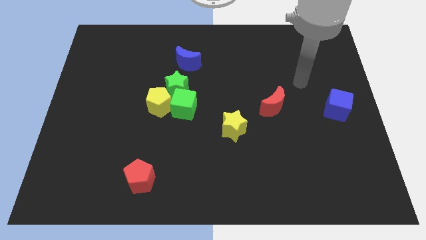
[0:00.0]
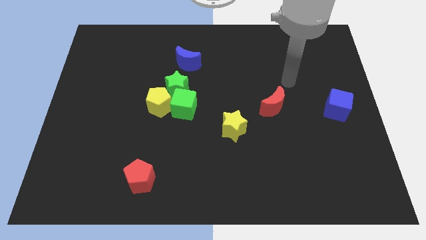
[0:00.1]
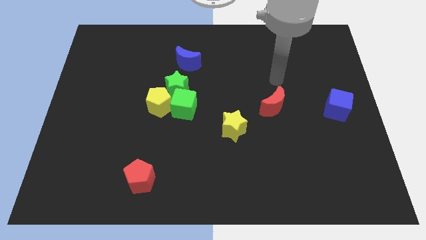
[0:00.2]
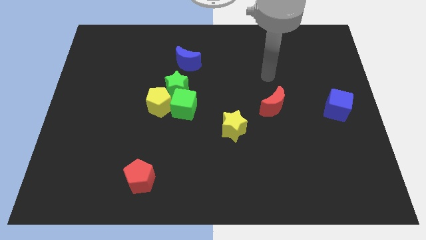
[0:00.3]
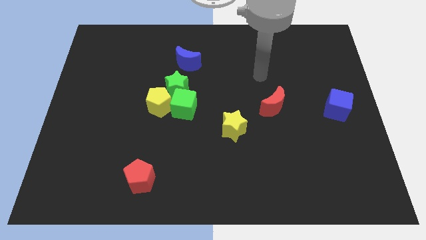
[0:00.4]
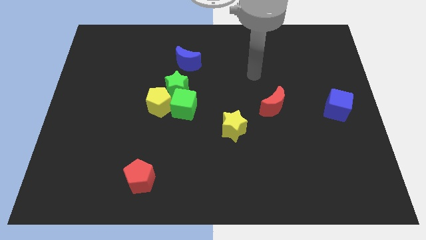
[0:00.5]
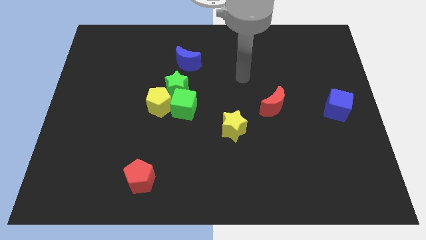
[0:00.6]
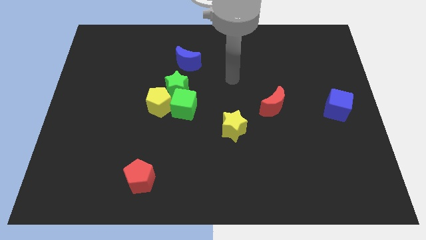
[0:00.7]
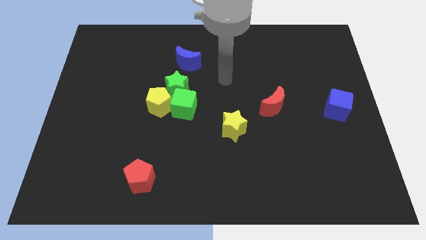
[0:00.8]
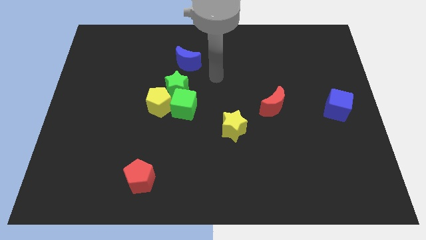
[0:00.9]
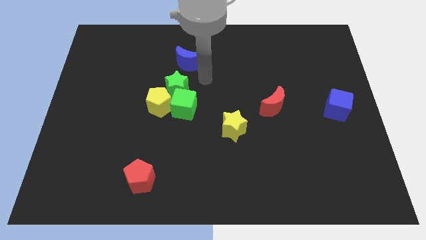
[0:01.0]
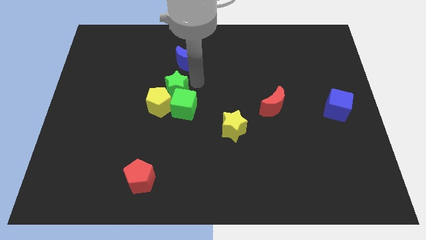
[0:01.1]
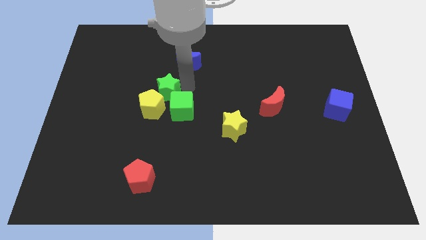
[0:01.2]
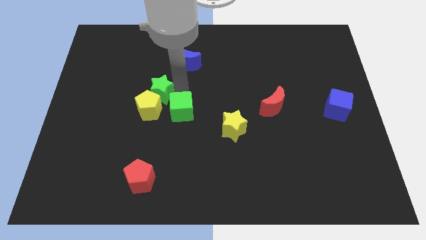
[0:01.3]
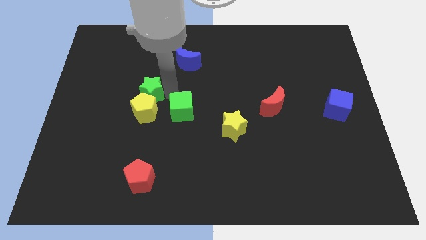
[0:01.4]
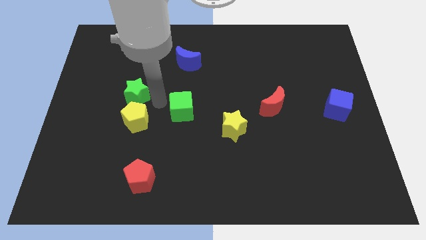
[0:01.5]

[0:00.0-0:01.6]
separate the green cube from the yellow pentagon and green star

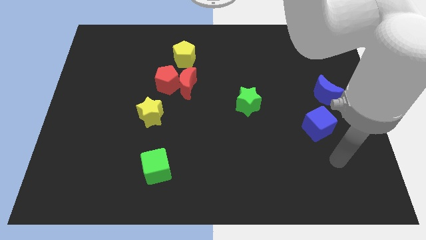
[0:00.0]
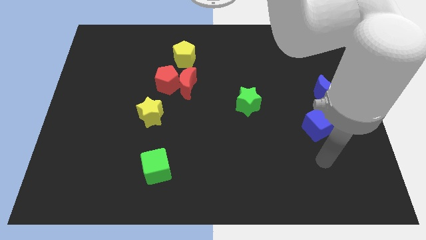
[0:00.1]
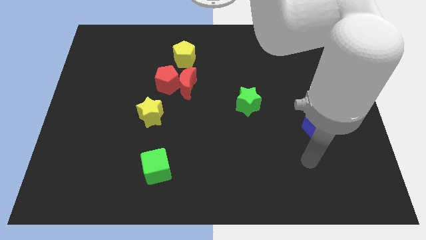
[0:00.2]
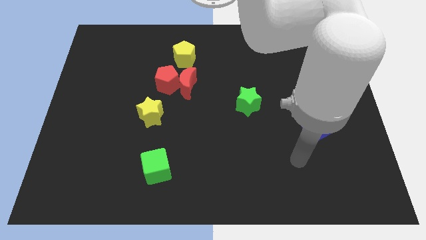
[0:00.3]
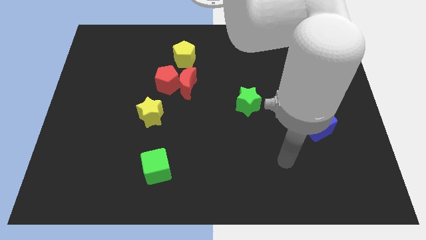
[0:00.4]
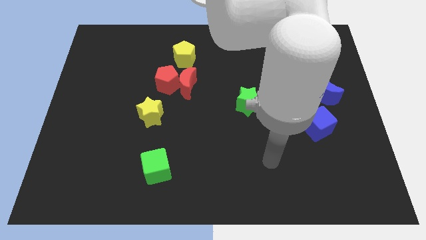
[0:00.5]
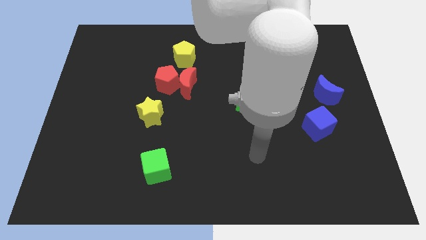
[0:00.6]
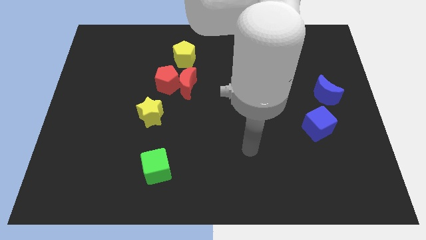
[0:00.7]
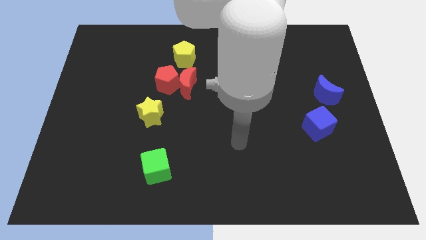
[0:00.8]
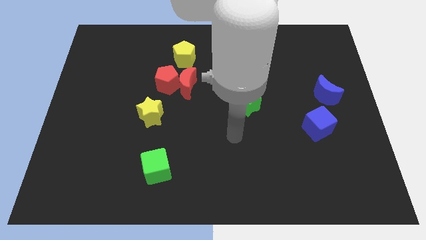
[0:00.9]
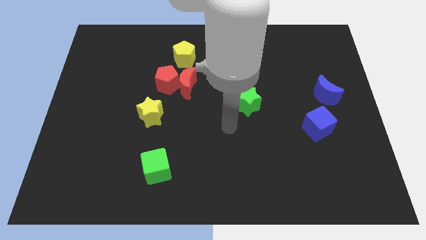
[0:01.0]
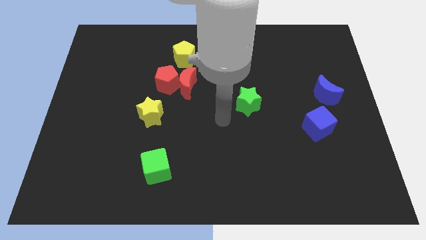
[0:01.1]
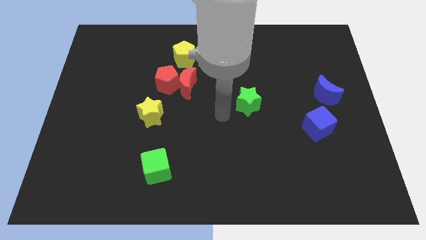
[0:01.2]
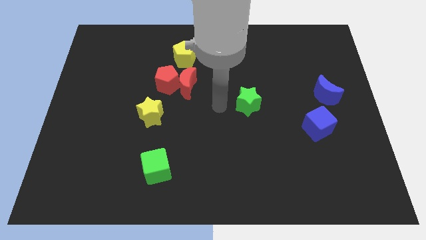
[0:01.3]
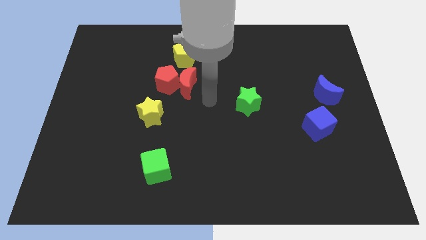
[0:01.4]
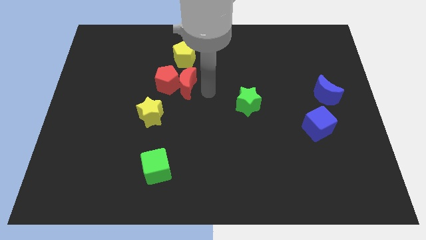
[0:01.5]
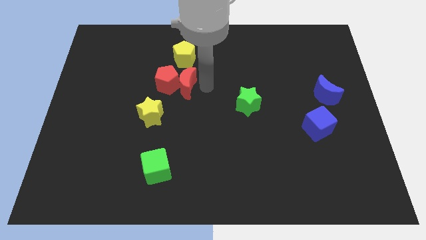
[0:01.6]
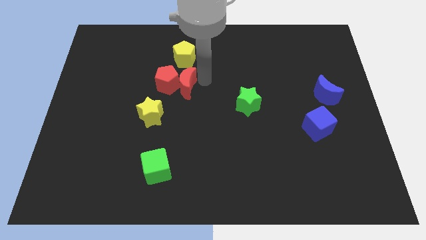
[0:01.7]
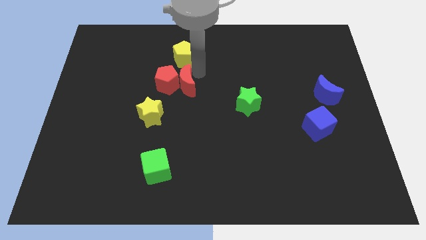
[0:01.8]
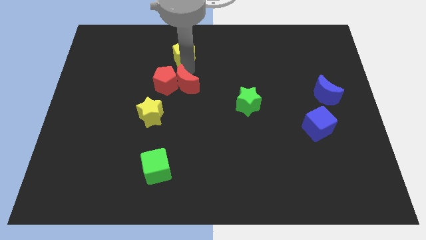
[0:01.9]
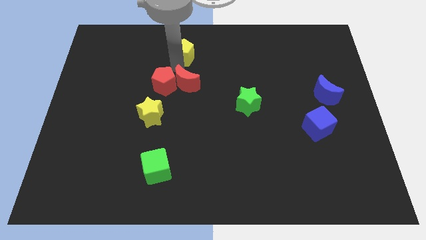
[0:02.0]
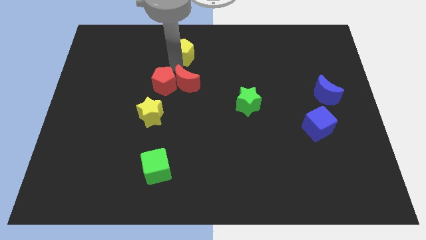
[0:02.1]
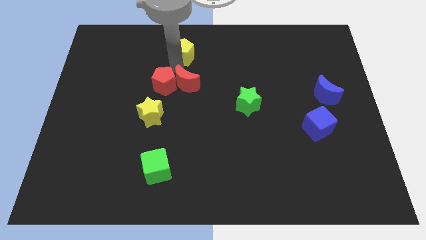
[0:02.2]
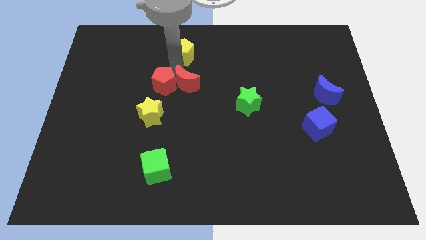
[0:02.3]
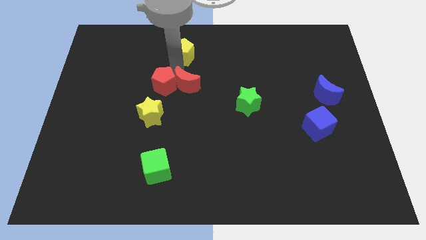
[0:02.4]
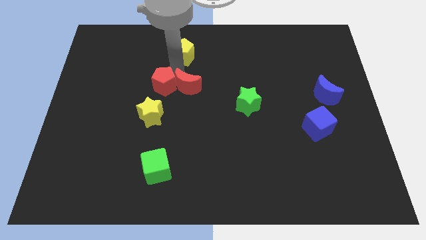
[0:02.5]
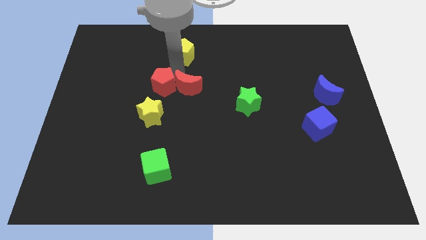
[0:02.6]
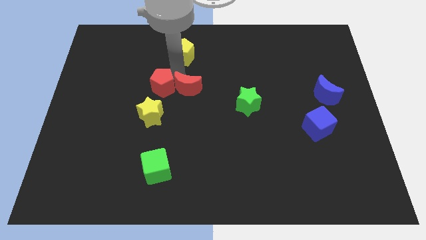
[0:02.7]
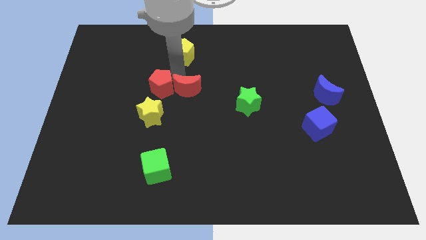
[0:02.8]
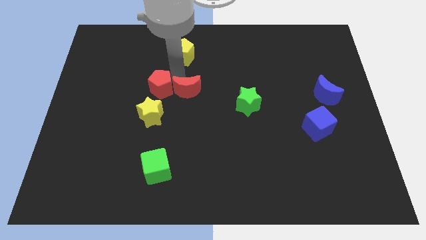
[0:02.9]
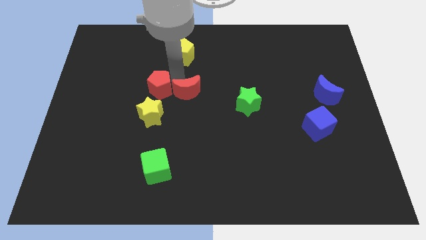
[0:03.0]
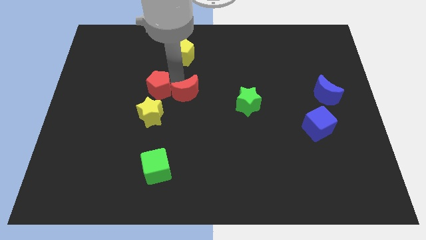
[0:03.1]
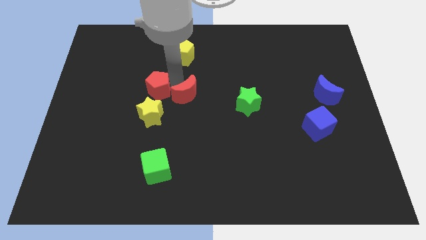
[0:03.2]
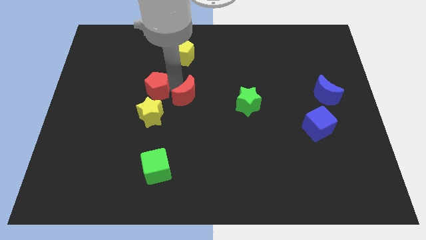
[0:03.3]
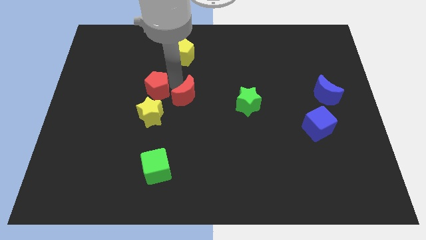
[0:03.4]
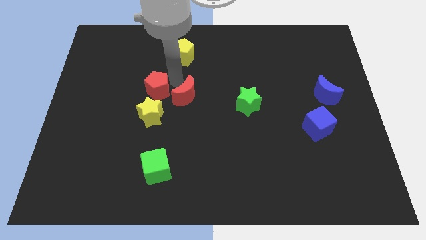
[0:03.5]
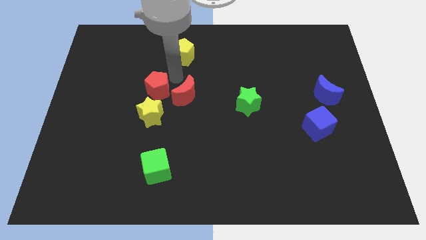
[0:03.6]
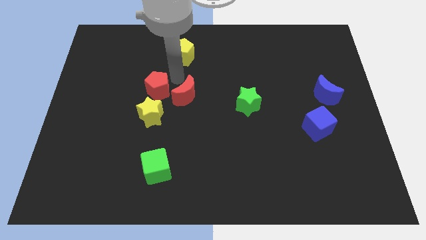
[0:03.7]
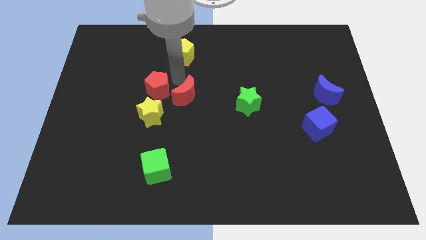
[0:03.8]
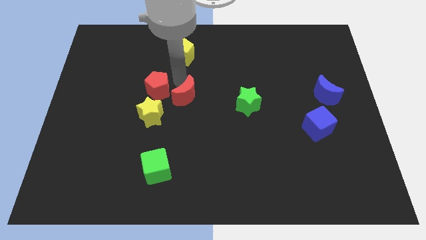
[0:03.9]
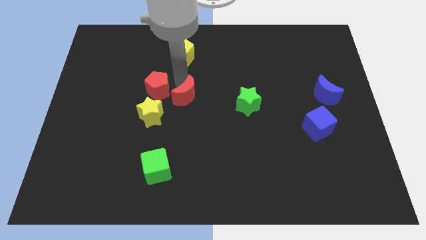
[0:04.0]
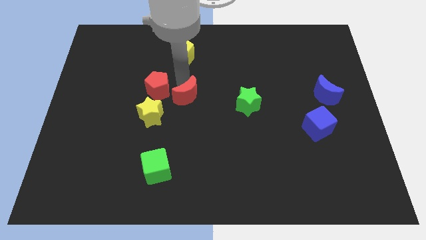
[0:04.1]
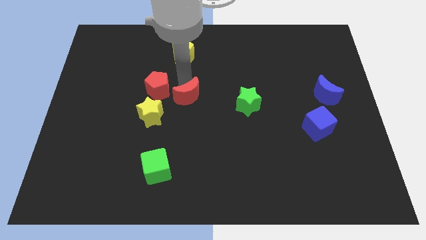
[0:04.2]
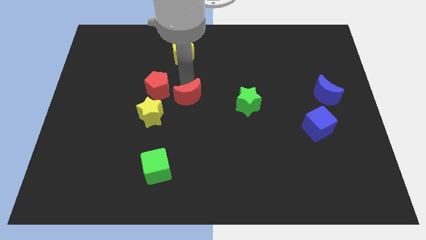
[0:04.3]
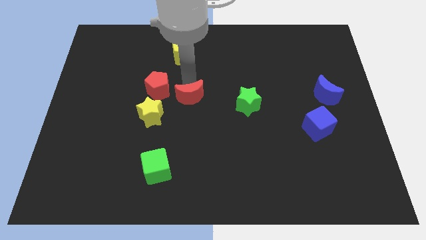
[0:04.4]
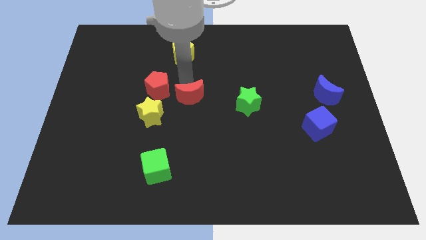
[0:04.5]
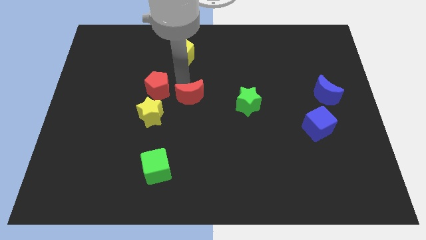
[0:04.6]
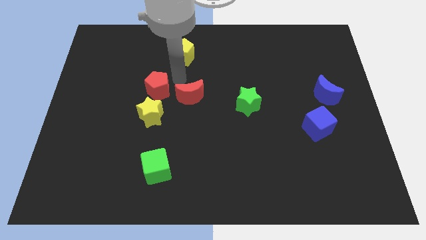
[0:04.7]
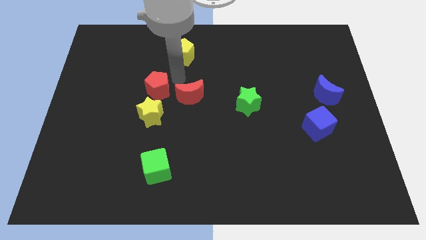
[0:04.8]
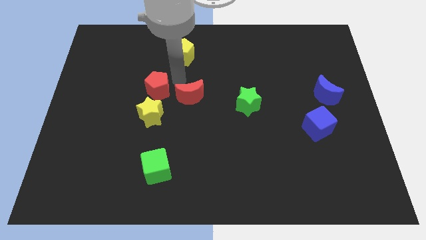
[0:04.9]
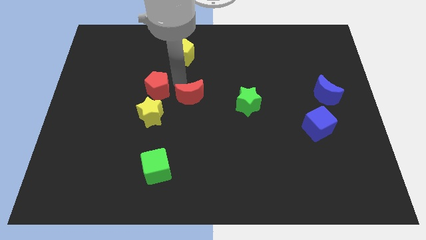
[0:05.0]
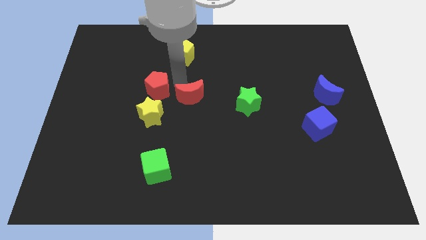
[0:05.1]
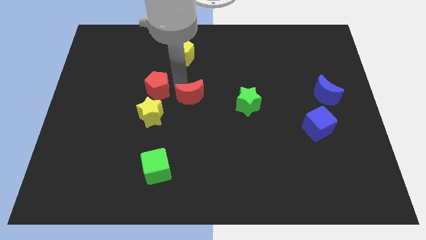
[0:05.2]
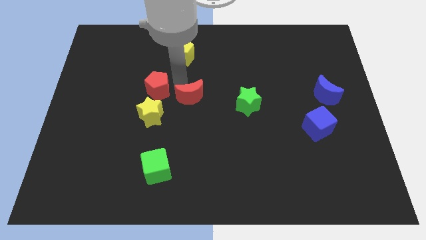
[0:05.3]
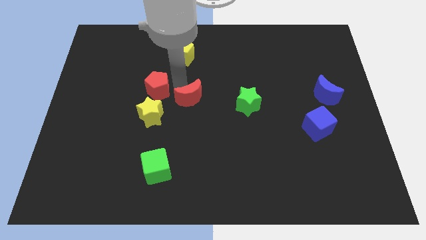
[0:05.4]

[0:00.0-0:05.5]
pull the red moon apart from the red pentagon and yellow pentagon

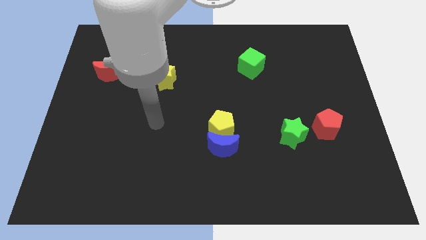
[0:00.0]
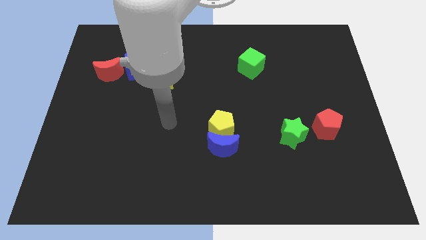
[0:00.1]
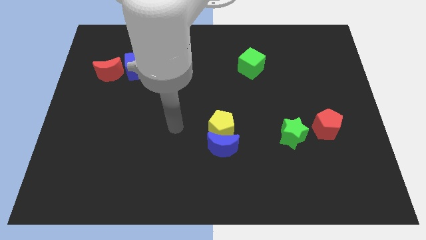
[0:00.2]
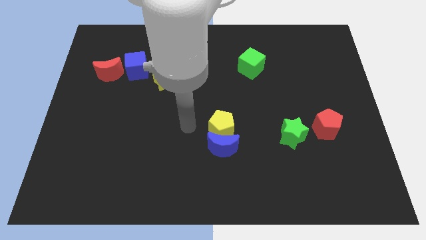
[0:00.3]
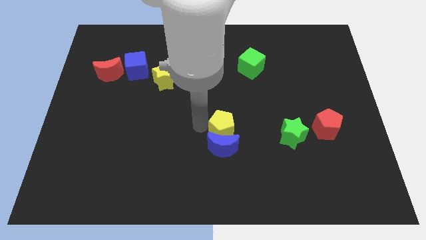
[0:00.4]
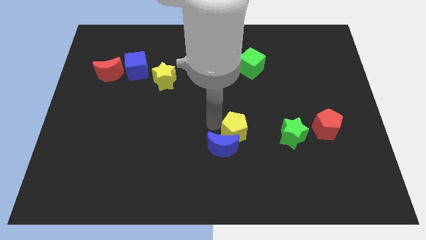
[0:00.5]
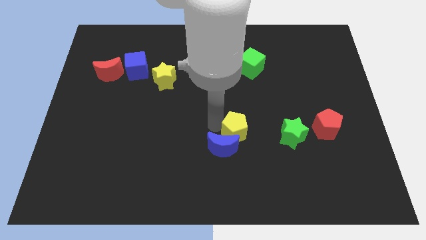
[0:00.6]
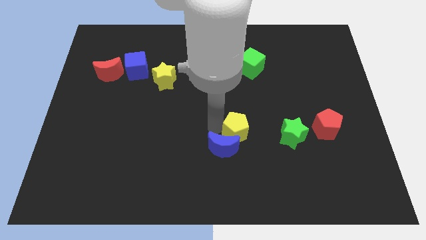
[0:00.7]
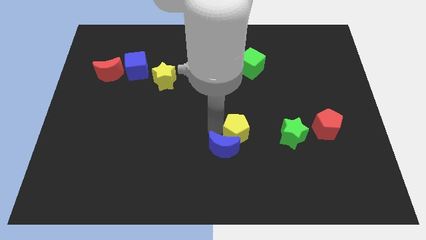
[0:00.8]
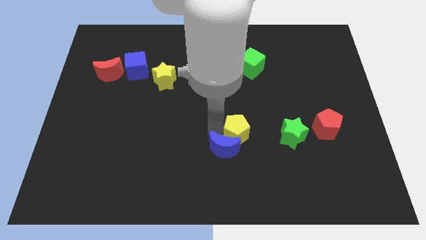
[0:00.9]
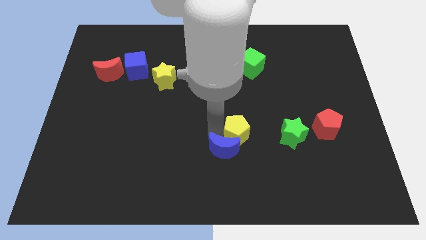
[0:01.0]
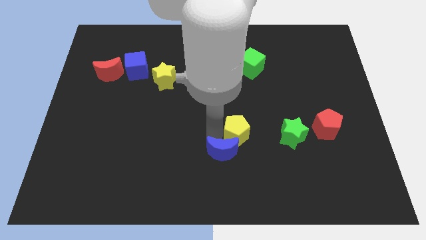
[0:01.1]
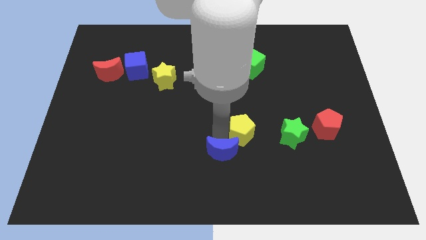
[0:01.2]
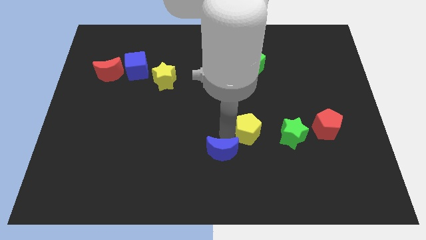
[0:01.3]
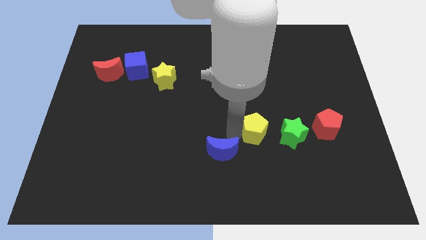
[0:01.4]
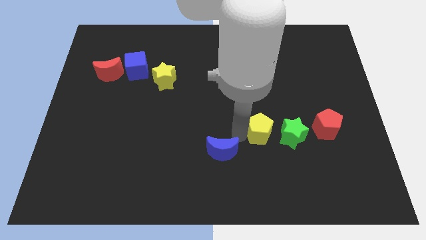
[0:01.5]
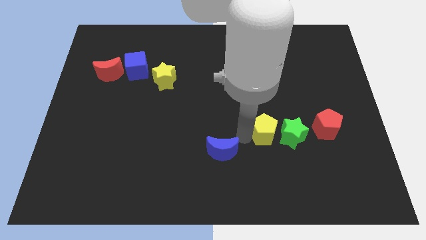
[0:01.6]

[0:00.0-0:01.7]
separate the blue moon from the yellow pentagon

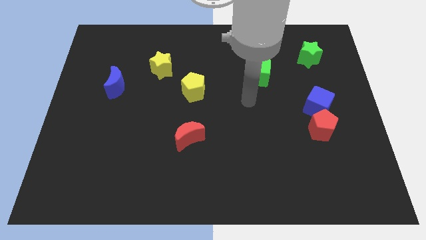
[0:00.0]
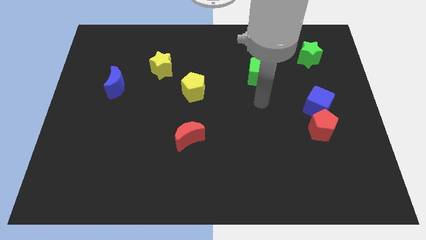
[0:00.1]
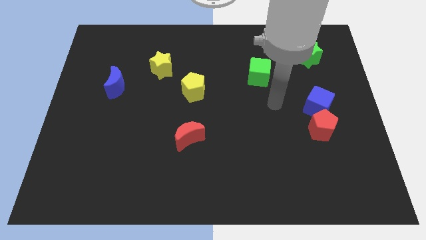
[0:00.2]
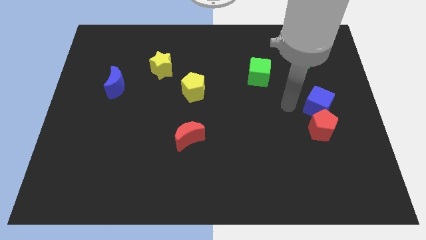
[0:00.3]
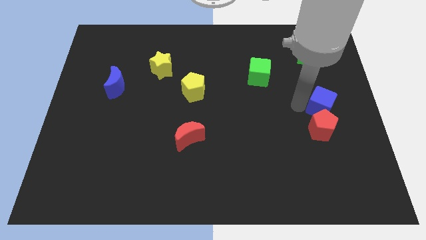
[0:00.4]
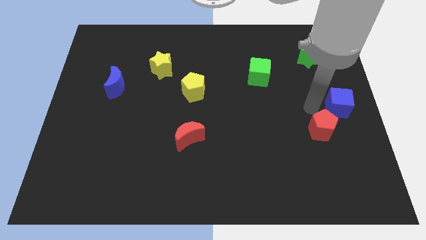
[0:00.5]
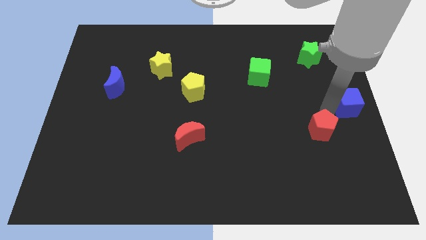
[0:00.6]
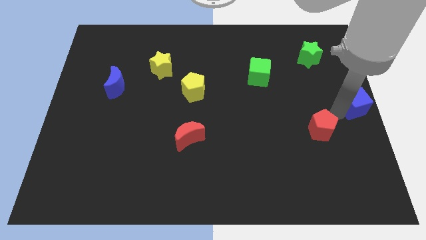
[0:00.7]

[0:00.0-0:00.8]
pull the red pentagon apart from the blue cube
